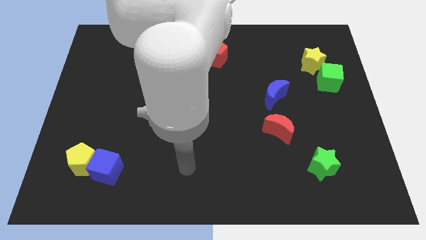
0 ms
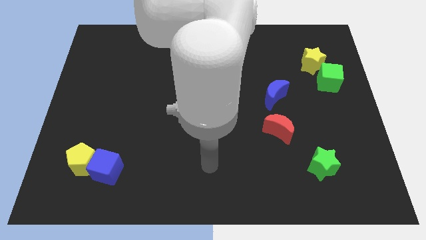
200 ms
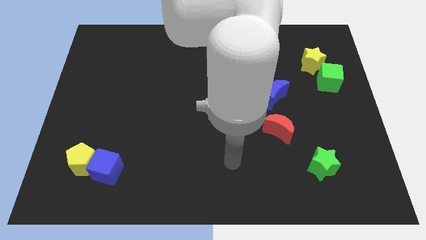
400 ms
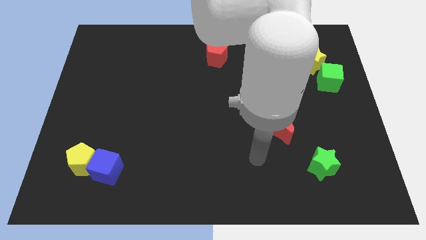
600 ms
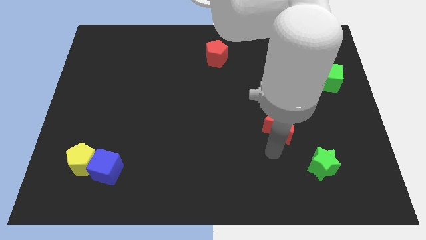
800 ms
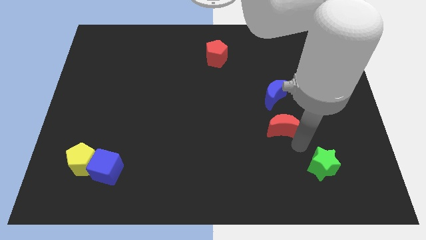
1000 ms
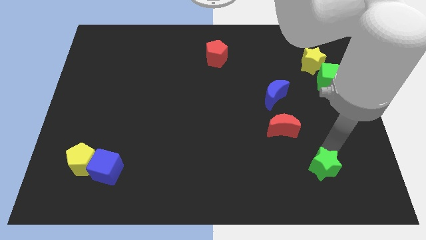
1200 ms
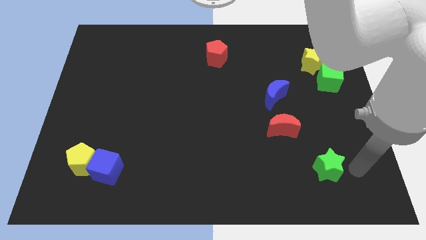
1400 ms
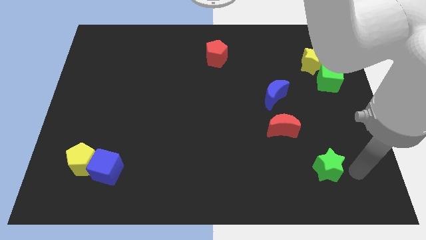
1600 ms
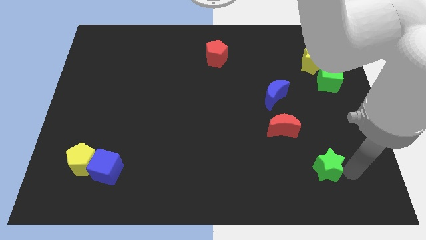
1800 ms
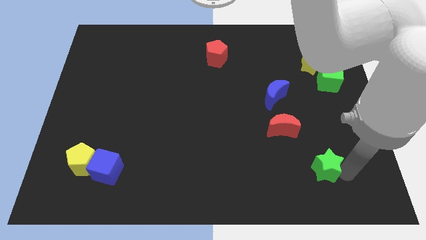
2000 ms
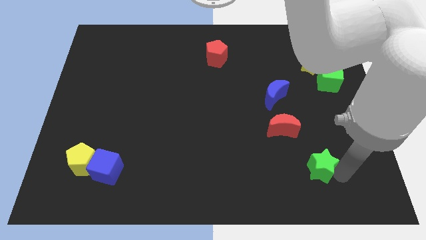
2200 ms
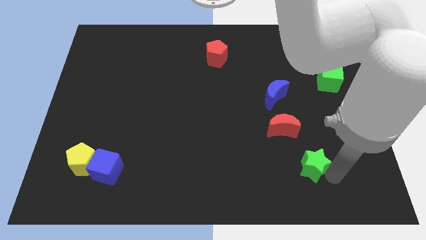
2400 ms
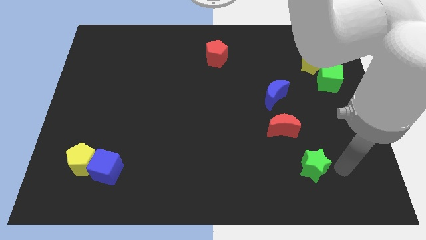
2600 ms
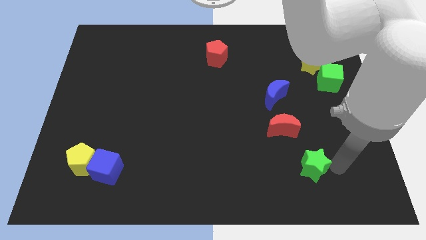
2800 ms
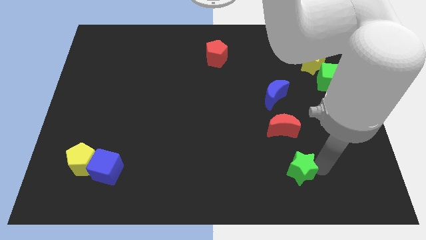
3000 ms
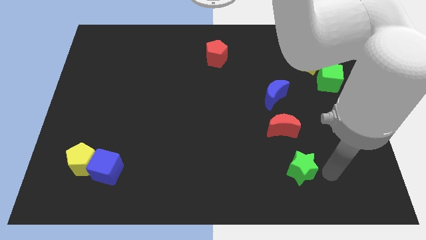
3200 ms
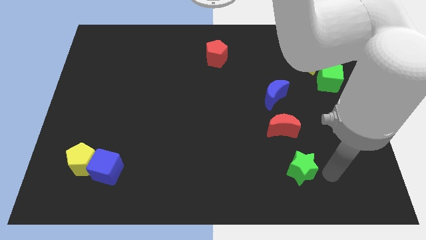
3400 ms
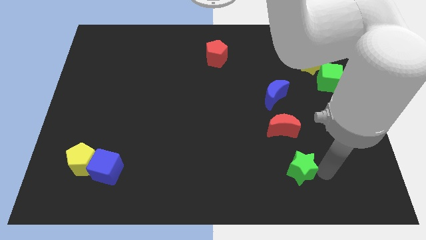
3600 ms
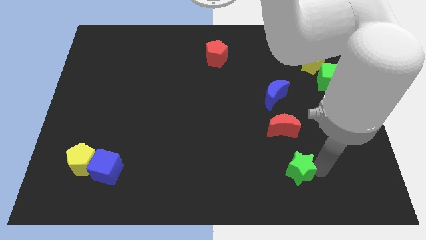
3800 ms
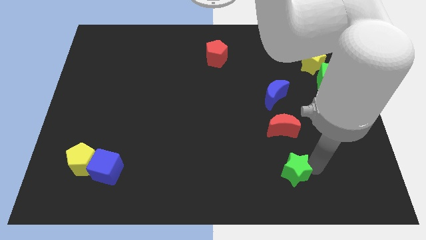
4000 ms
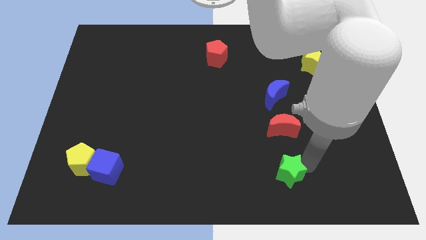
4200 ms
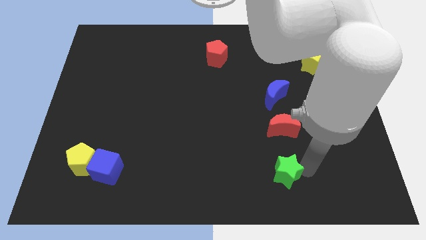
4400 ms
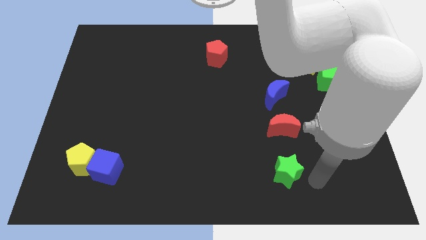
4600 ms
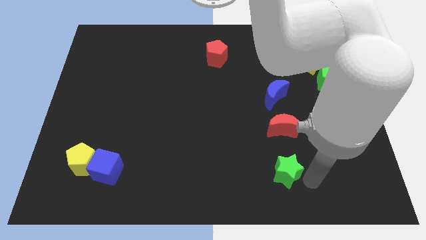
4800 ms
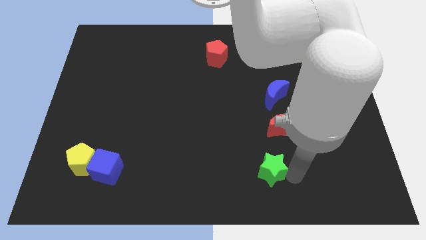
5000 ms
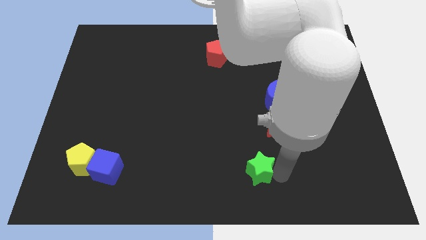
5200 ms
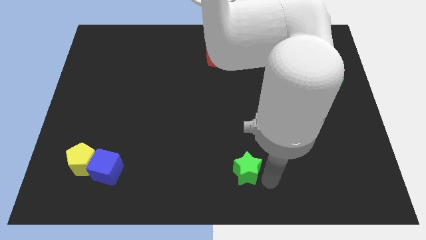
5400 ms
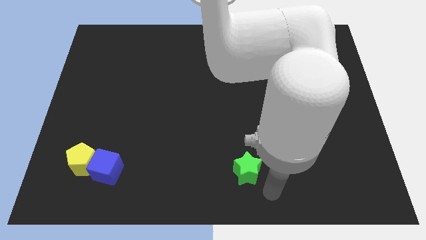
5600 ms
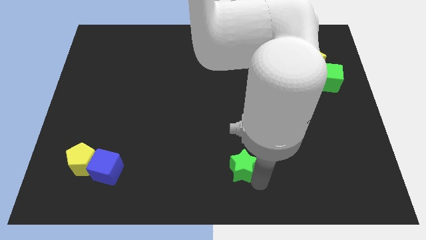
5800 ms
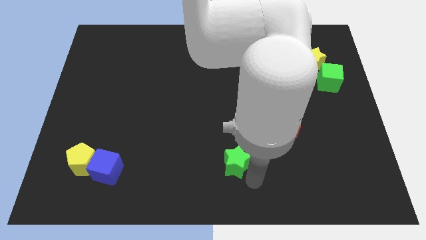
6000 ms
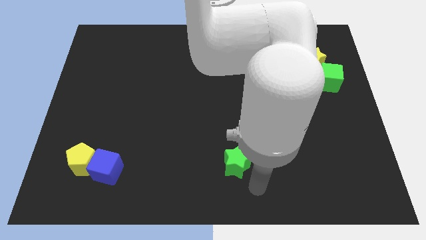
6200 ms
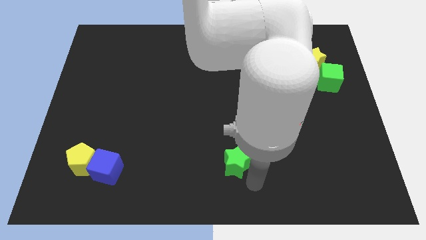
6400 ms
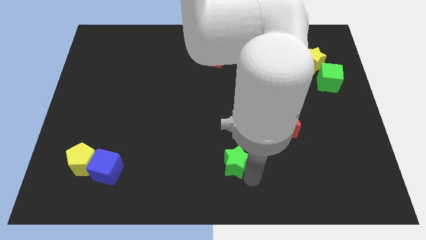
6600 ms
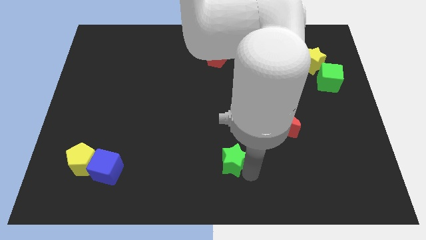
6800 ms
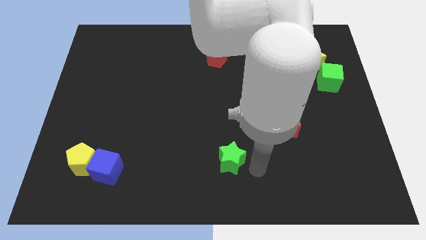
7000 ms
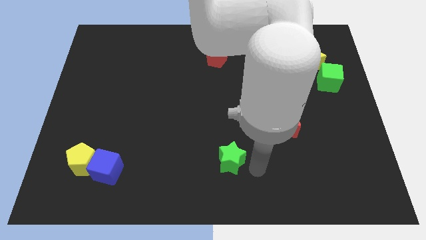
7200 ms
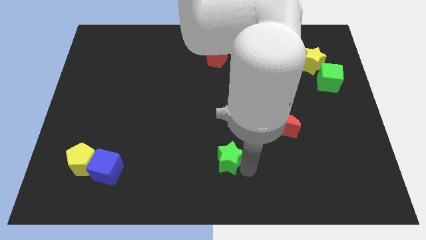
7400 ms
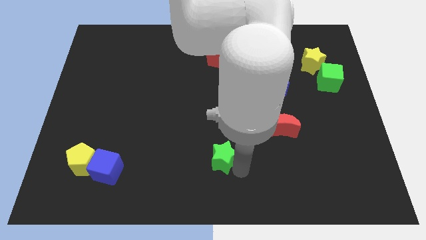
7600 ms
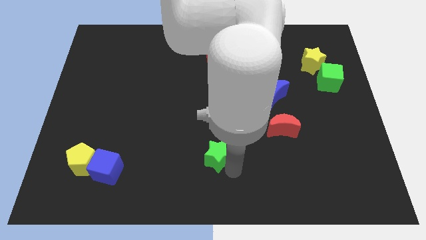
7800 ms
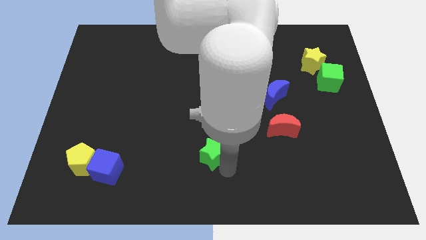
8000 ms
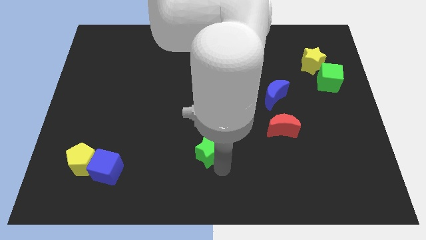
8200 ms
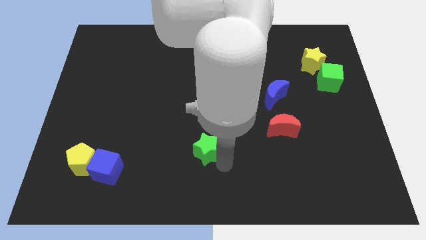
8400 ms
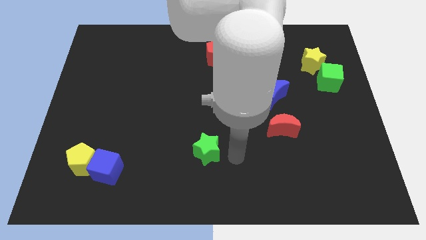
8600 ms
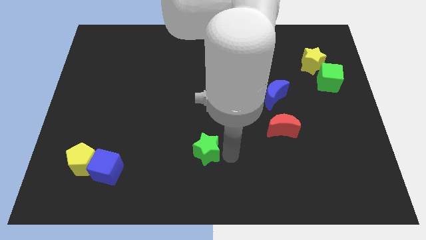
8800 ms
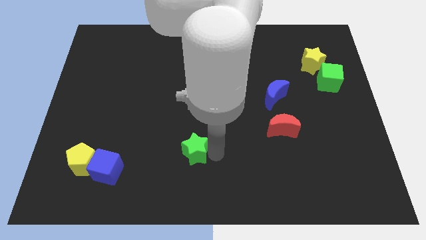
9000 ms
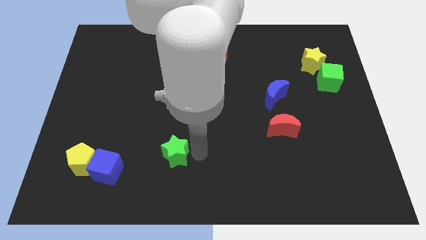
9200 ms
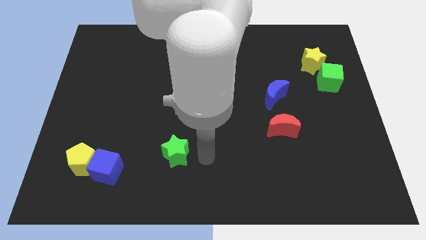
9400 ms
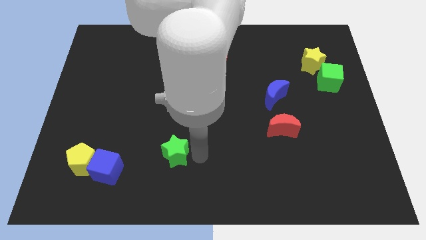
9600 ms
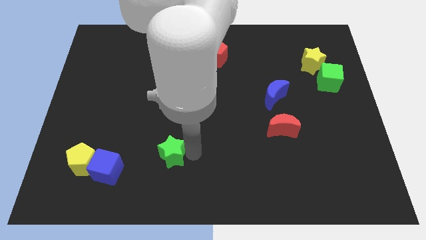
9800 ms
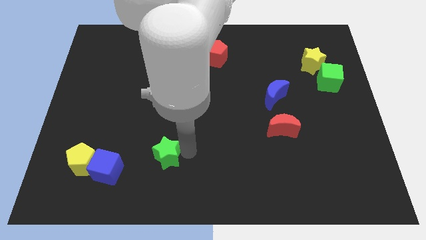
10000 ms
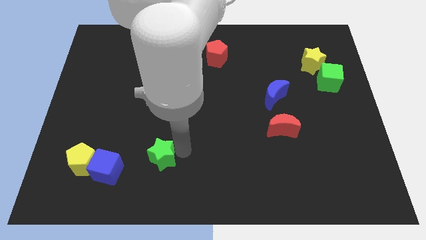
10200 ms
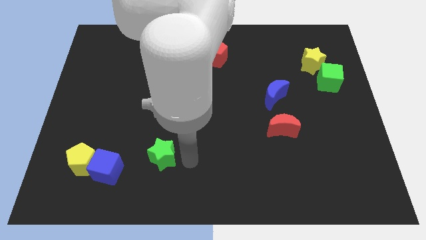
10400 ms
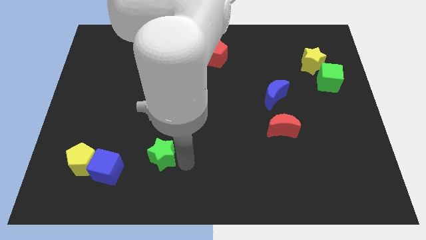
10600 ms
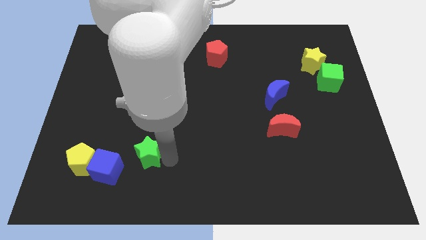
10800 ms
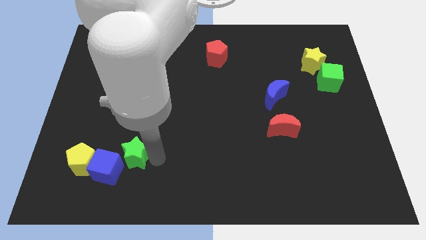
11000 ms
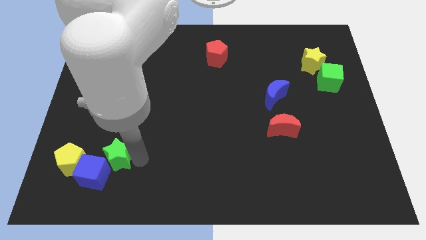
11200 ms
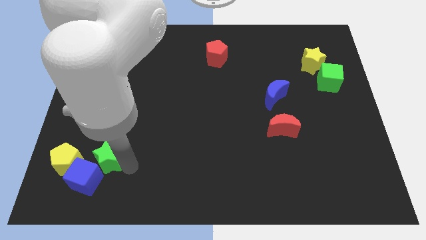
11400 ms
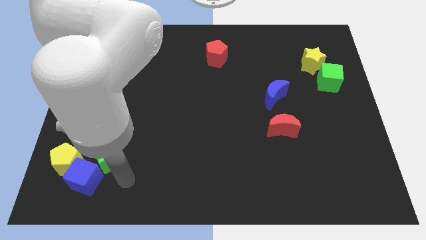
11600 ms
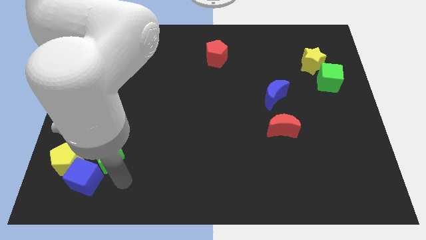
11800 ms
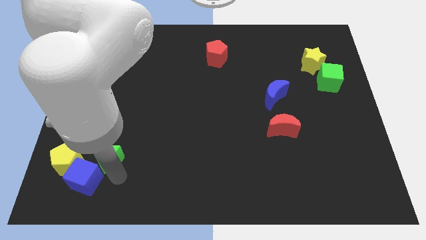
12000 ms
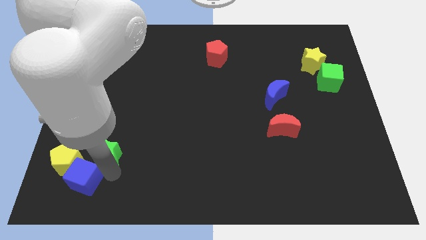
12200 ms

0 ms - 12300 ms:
move the green star diagonally up and to the right of the yellow pentagon

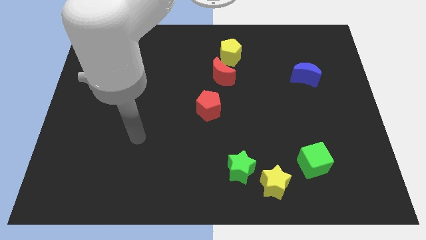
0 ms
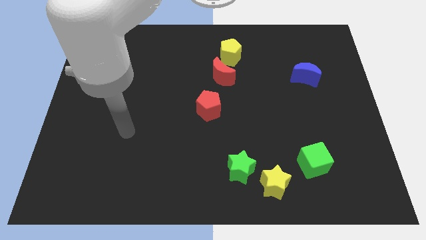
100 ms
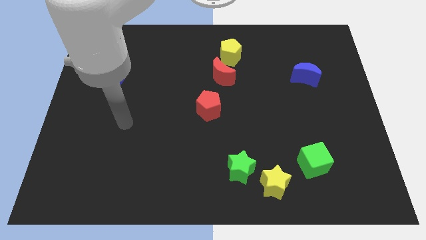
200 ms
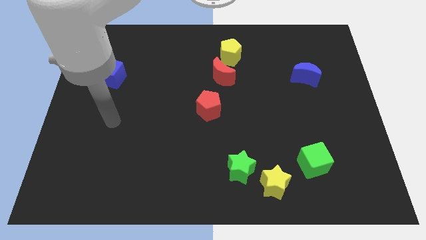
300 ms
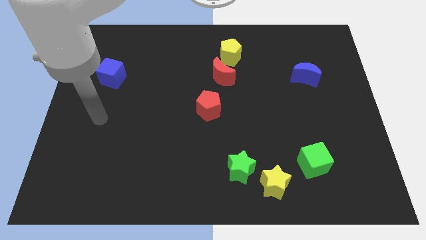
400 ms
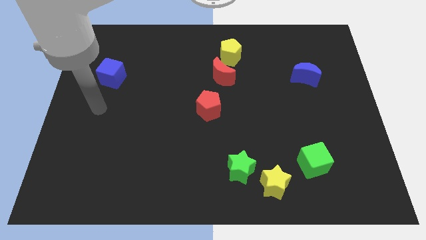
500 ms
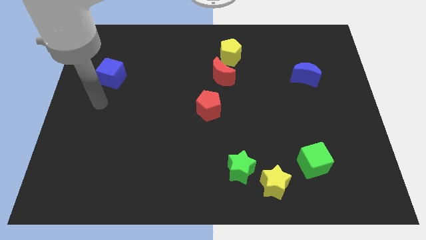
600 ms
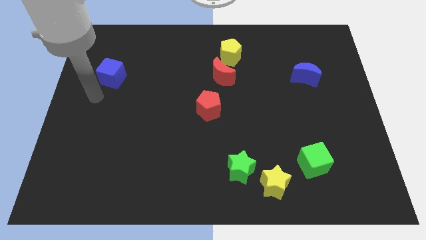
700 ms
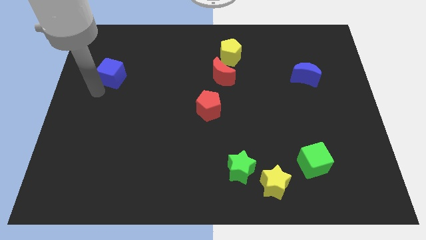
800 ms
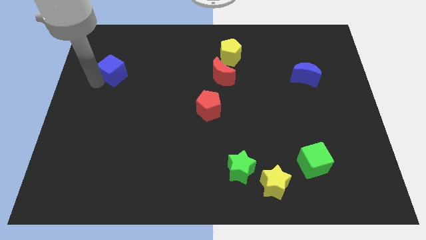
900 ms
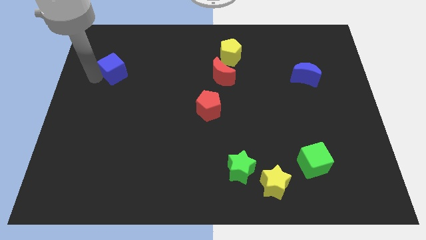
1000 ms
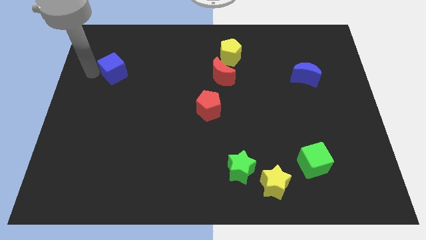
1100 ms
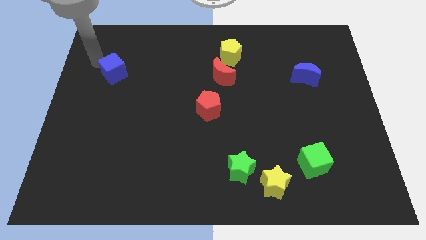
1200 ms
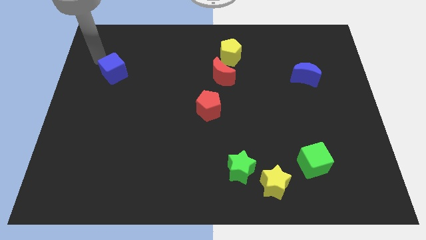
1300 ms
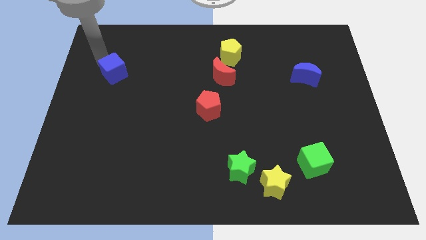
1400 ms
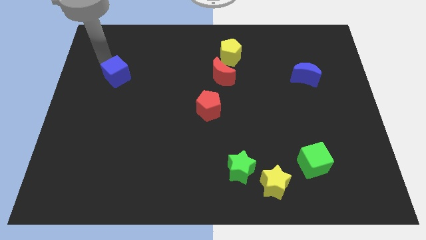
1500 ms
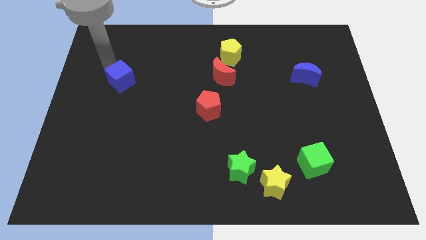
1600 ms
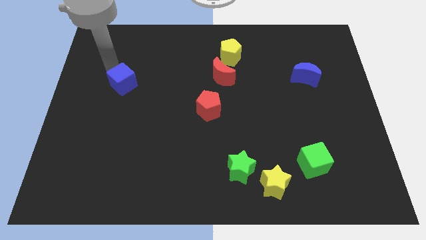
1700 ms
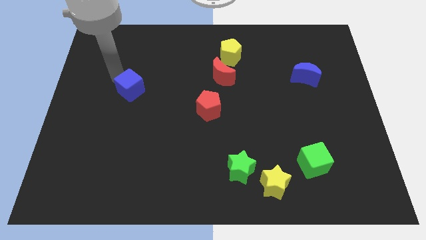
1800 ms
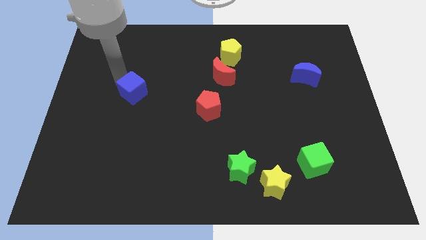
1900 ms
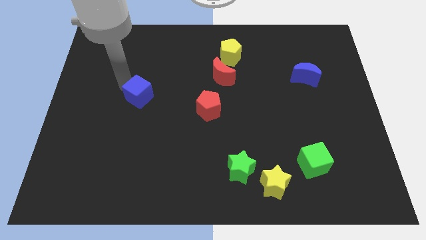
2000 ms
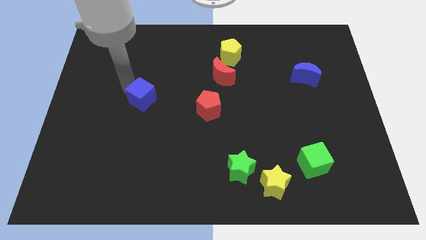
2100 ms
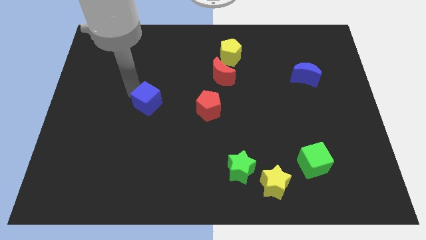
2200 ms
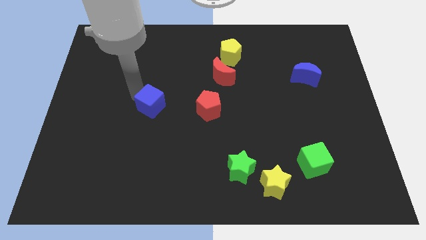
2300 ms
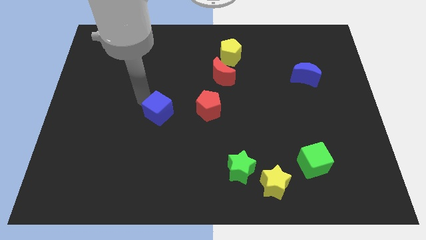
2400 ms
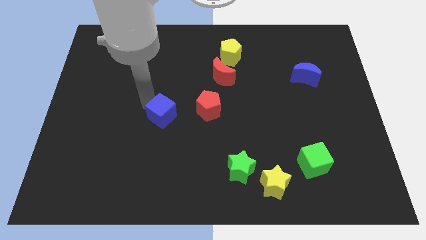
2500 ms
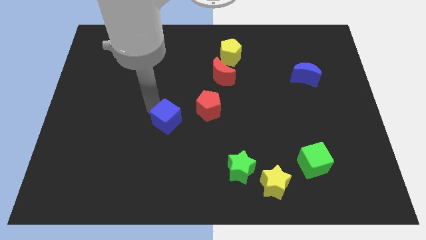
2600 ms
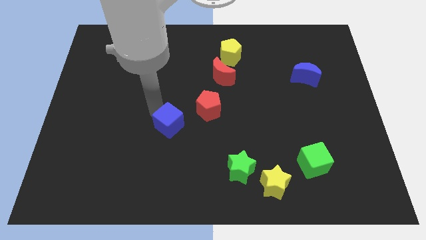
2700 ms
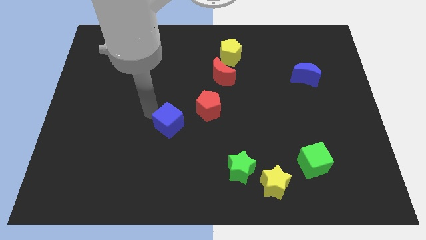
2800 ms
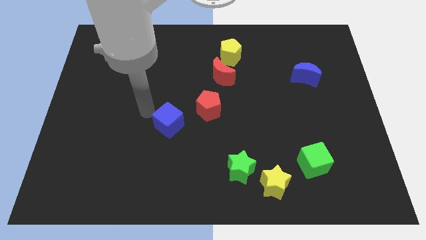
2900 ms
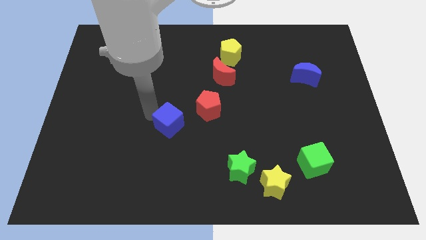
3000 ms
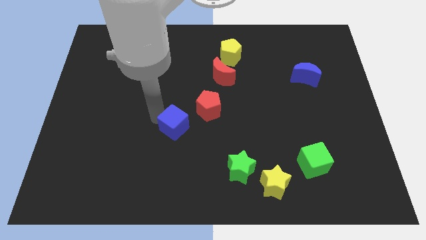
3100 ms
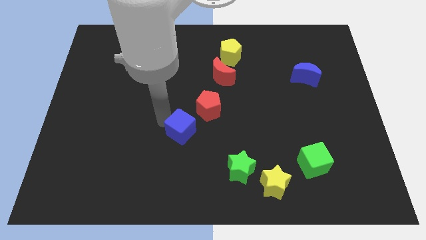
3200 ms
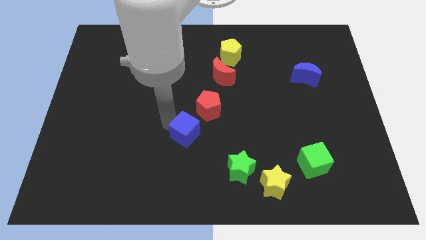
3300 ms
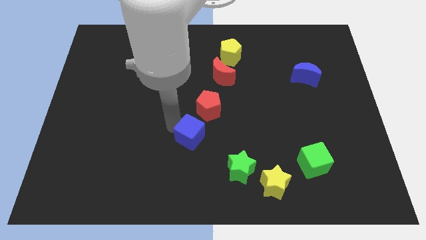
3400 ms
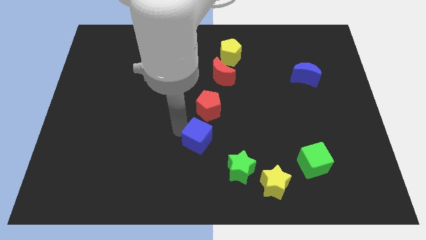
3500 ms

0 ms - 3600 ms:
slide the blue cube diagonally up and to the left of the green star
